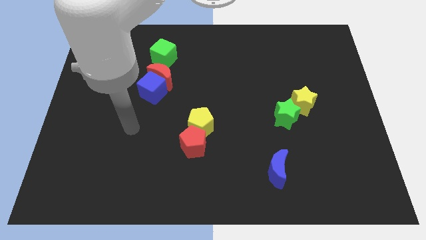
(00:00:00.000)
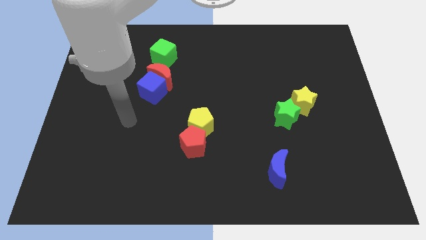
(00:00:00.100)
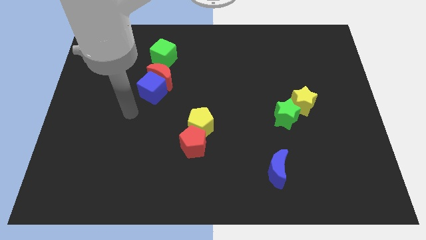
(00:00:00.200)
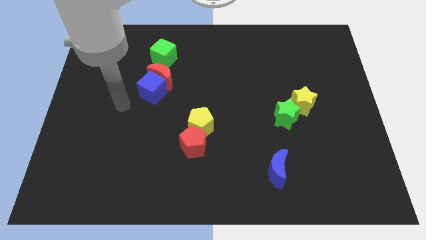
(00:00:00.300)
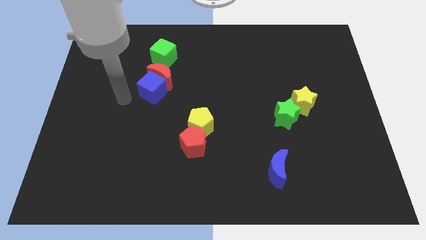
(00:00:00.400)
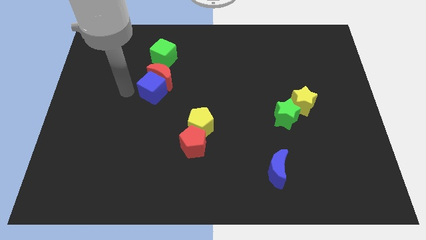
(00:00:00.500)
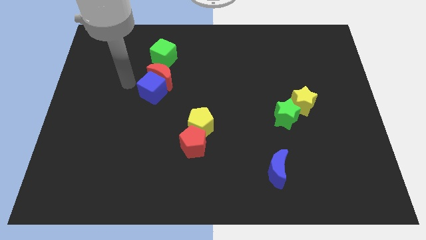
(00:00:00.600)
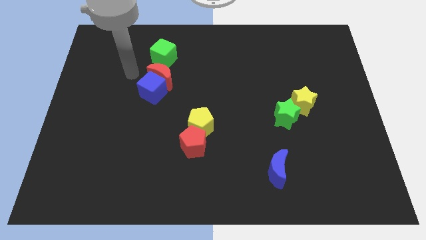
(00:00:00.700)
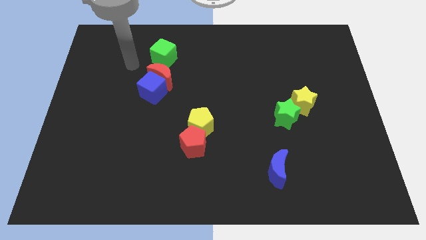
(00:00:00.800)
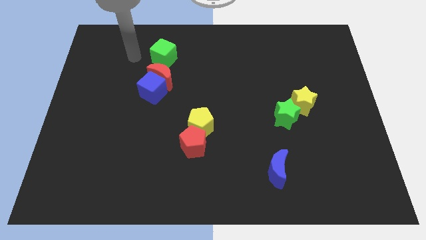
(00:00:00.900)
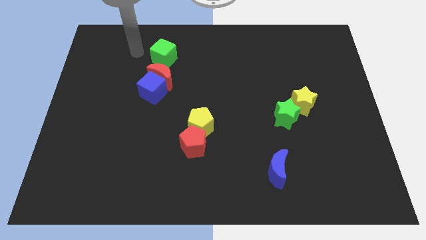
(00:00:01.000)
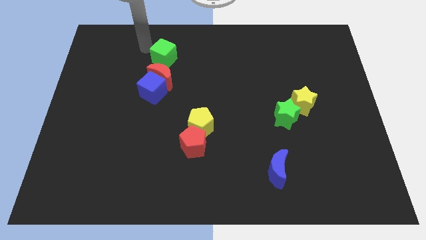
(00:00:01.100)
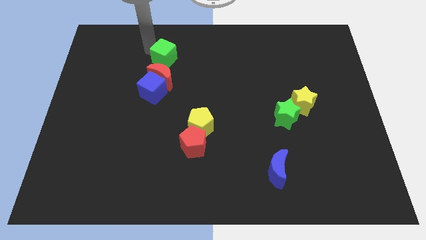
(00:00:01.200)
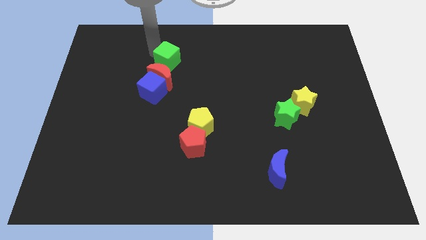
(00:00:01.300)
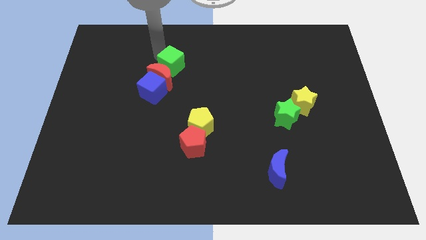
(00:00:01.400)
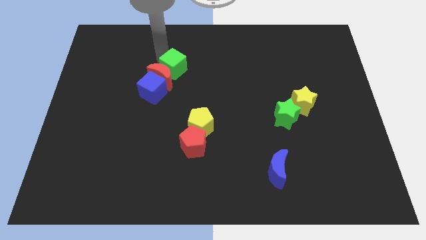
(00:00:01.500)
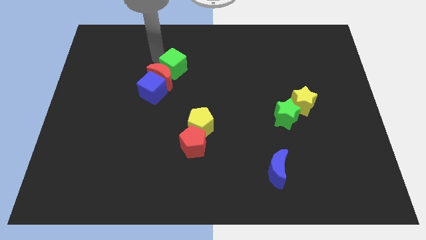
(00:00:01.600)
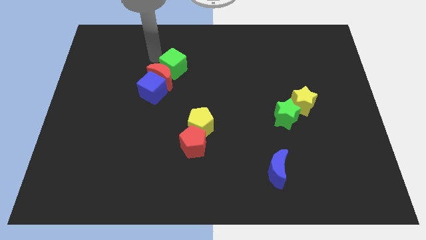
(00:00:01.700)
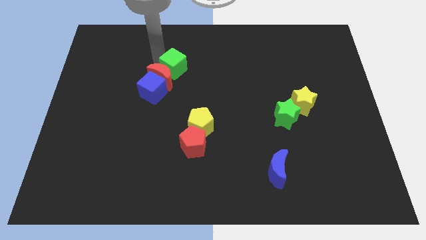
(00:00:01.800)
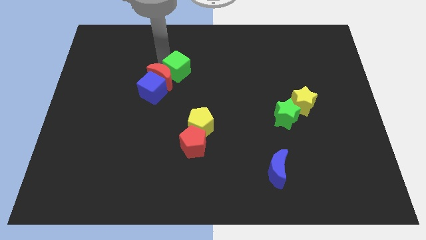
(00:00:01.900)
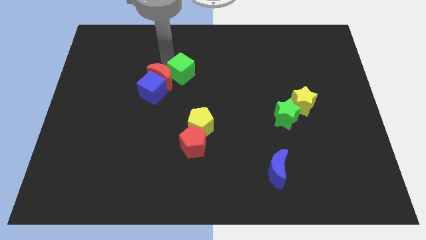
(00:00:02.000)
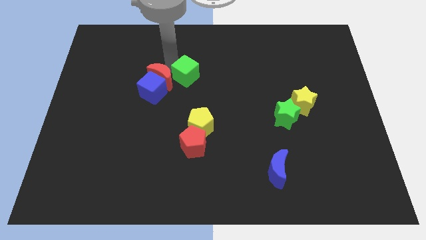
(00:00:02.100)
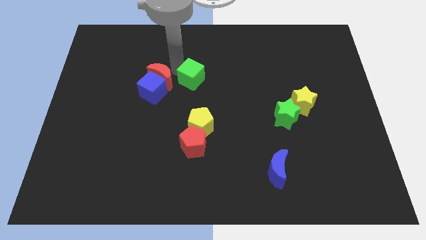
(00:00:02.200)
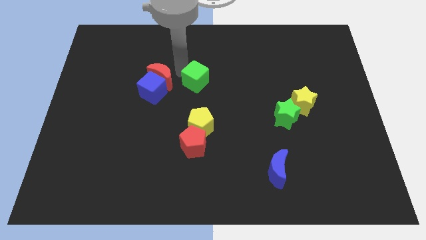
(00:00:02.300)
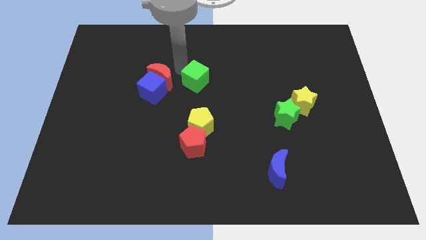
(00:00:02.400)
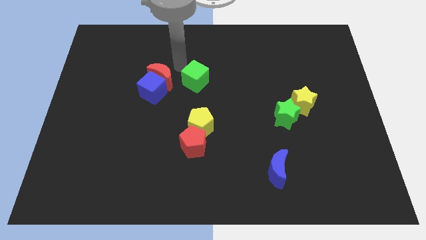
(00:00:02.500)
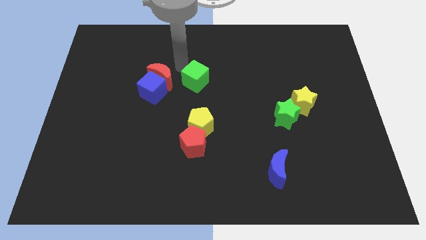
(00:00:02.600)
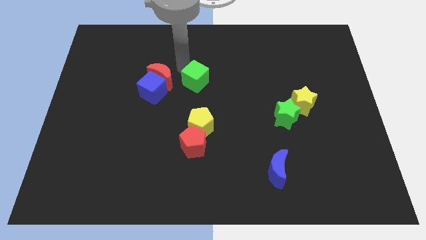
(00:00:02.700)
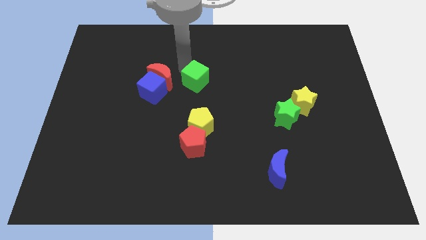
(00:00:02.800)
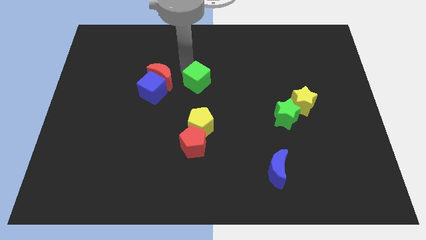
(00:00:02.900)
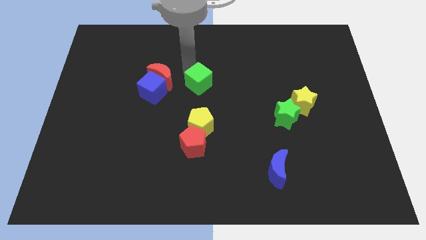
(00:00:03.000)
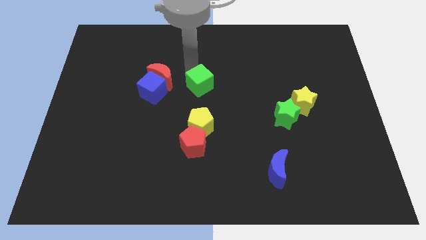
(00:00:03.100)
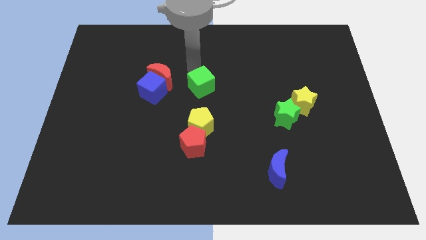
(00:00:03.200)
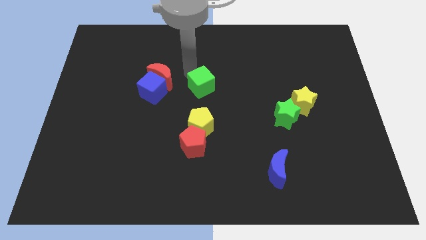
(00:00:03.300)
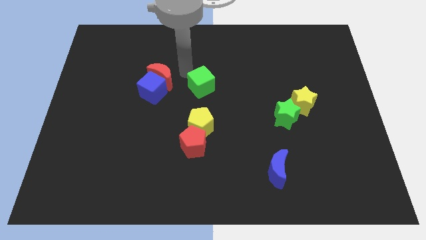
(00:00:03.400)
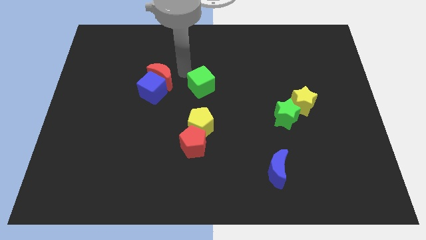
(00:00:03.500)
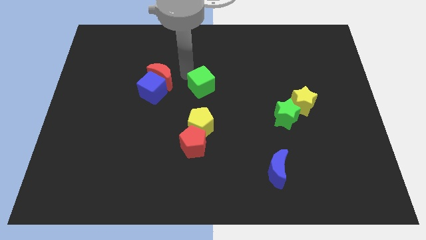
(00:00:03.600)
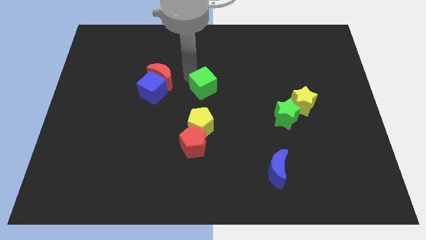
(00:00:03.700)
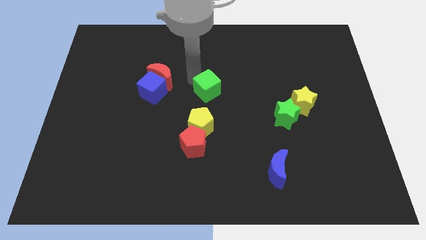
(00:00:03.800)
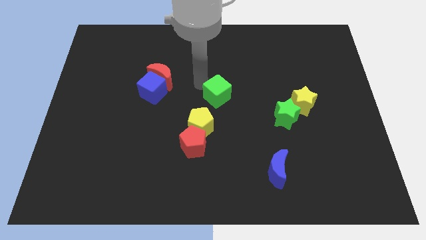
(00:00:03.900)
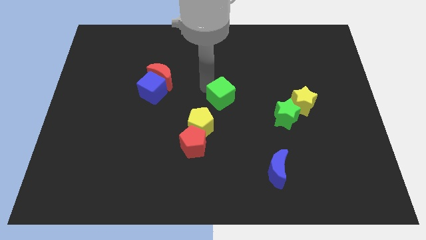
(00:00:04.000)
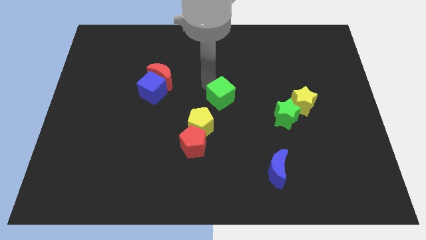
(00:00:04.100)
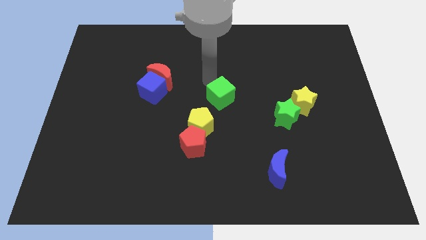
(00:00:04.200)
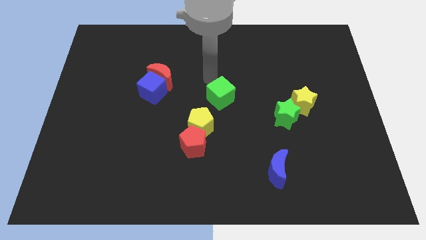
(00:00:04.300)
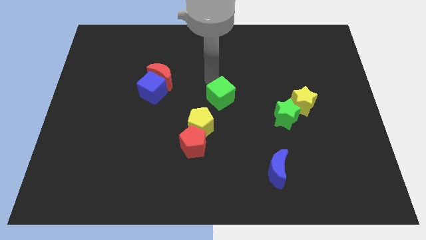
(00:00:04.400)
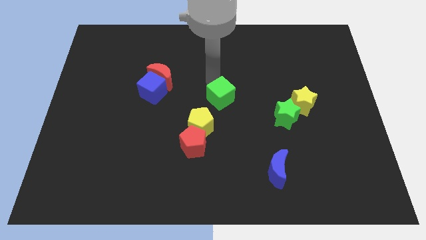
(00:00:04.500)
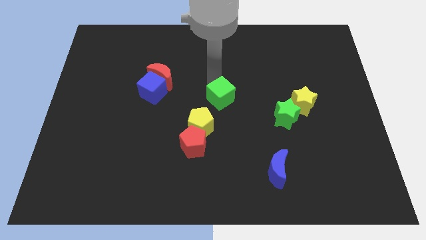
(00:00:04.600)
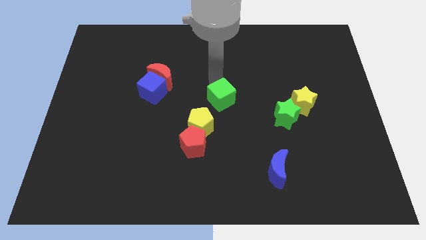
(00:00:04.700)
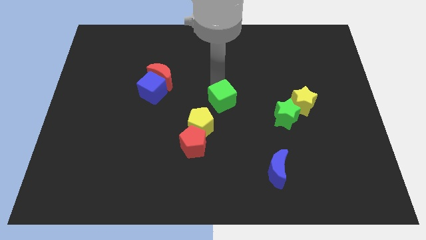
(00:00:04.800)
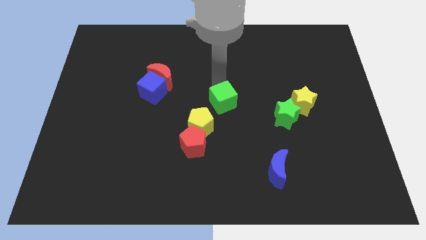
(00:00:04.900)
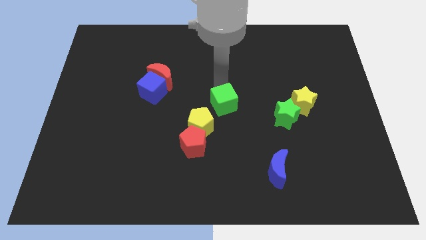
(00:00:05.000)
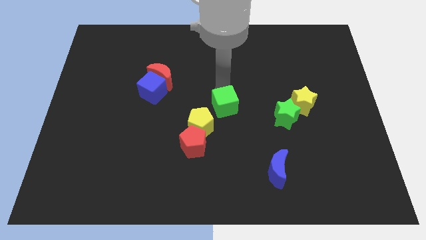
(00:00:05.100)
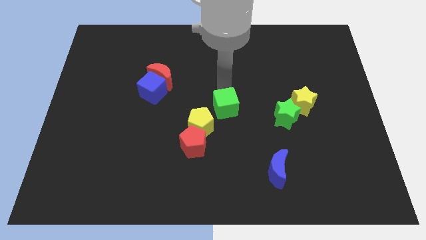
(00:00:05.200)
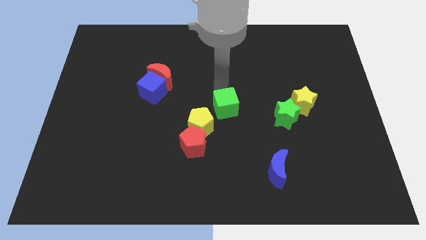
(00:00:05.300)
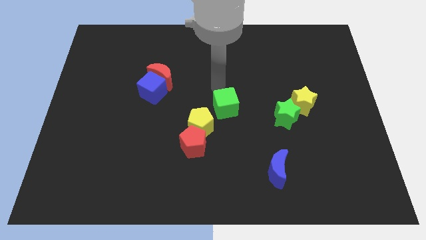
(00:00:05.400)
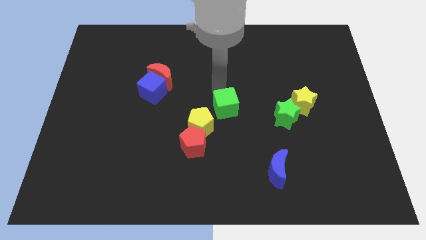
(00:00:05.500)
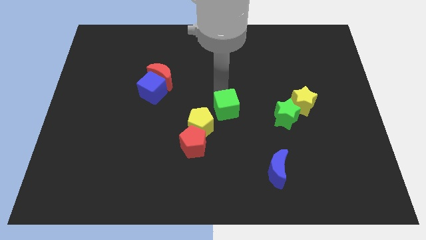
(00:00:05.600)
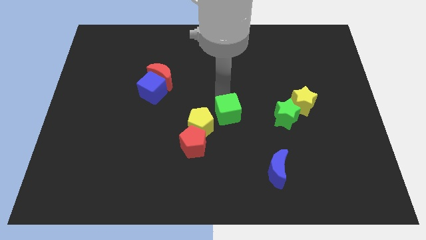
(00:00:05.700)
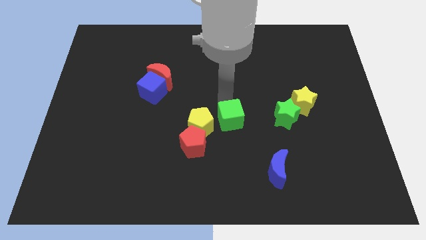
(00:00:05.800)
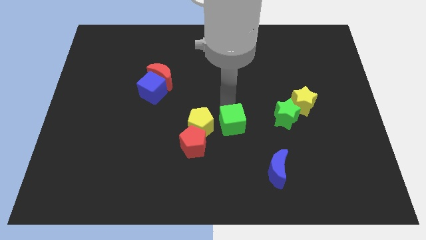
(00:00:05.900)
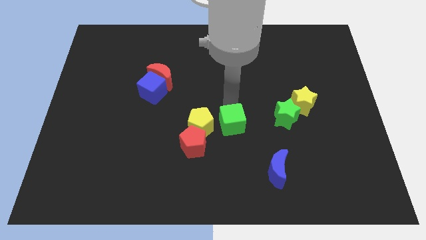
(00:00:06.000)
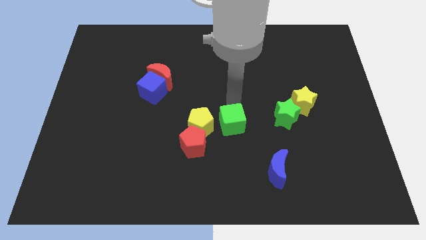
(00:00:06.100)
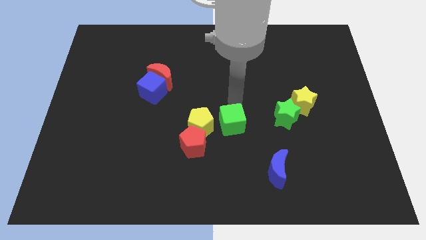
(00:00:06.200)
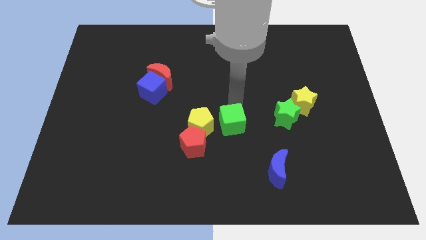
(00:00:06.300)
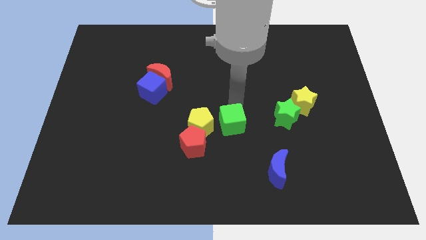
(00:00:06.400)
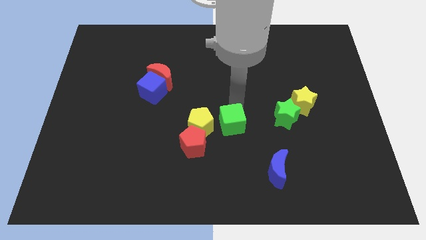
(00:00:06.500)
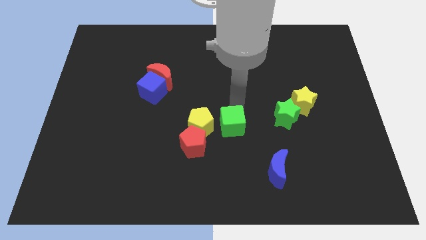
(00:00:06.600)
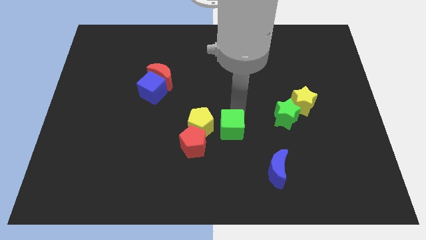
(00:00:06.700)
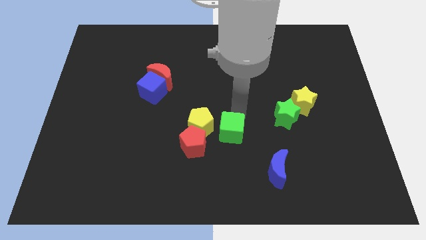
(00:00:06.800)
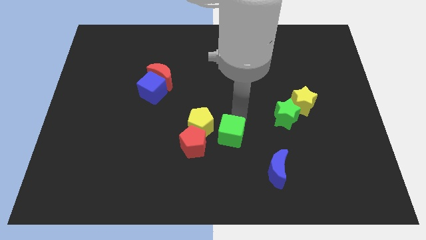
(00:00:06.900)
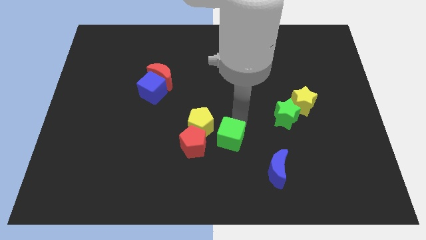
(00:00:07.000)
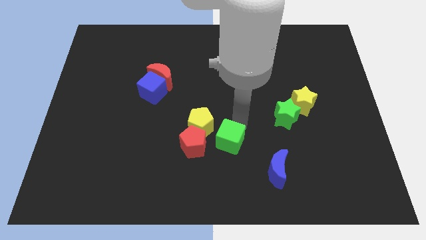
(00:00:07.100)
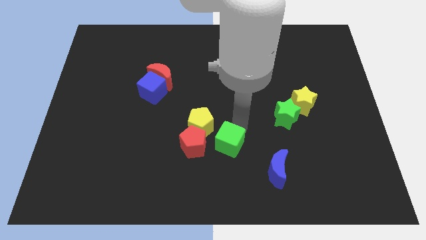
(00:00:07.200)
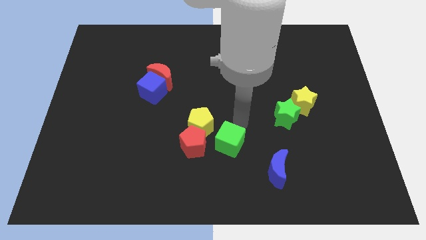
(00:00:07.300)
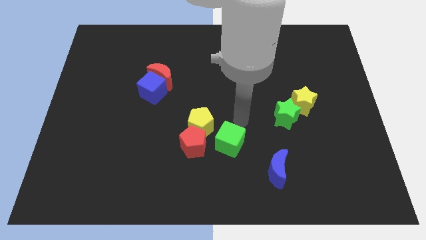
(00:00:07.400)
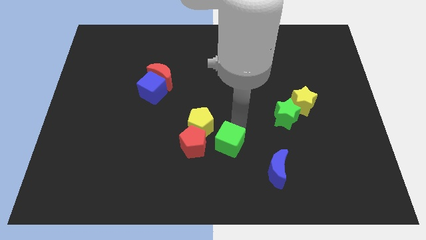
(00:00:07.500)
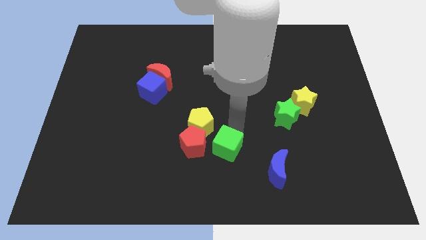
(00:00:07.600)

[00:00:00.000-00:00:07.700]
slide the green cube to the bottom right side of the red pentagon
